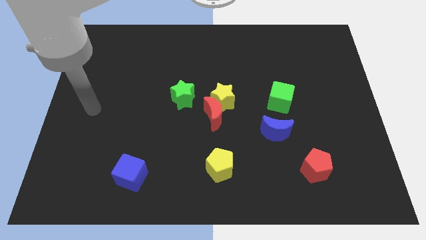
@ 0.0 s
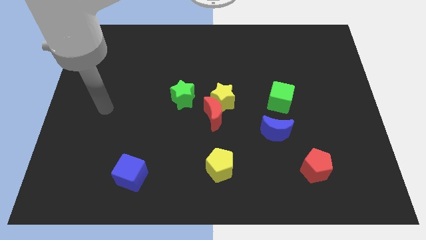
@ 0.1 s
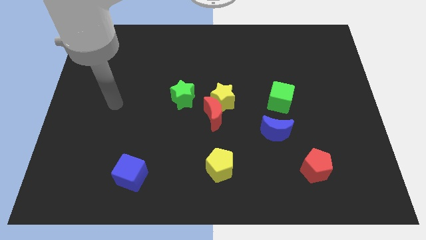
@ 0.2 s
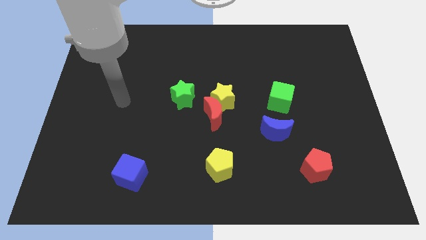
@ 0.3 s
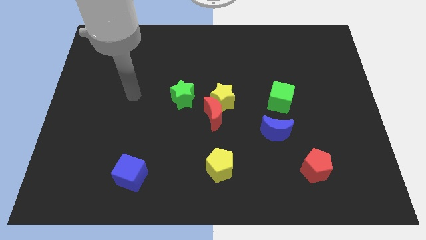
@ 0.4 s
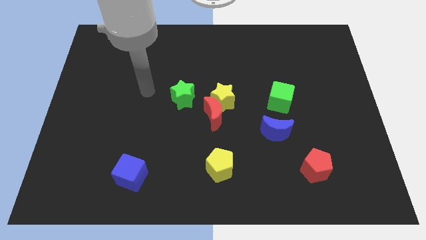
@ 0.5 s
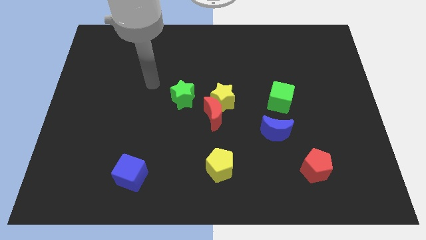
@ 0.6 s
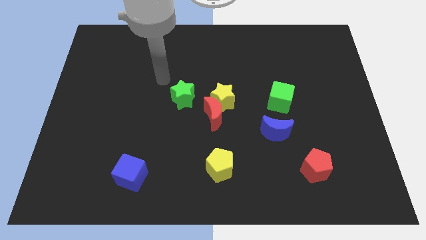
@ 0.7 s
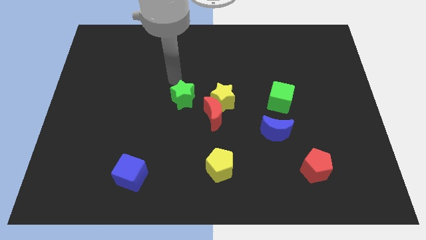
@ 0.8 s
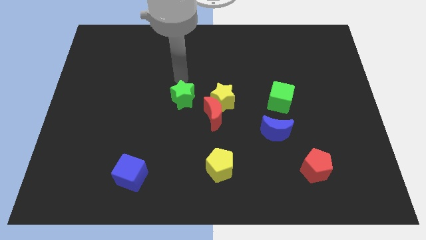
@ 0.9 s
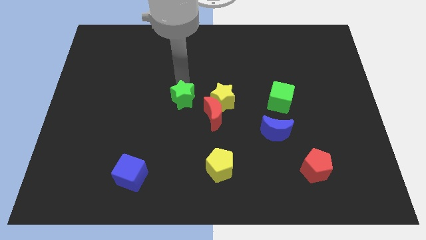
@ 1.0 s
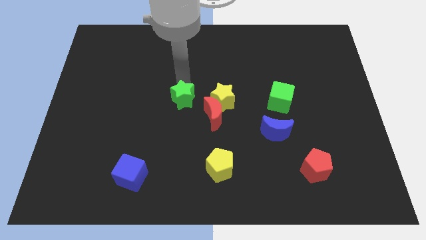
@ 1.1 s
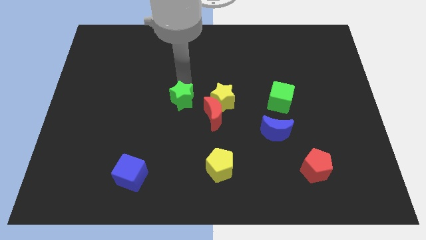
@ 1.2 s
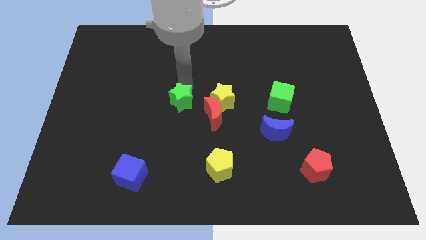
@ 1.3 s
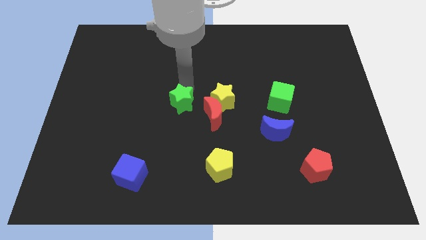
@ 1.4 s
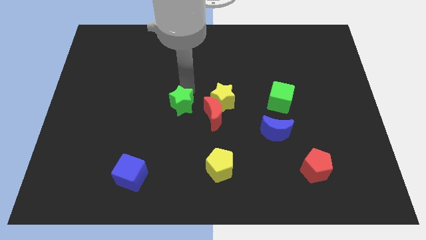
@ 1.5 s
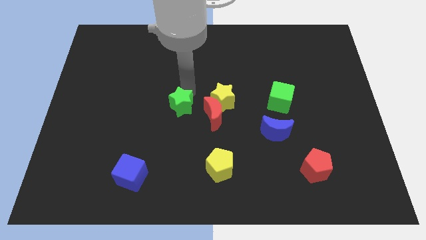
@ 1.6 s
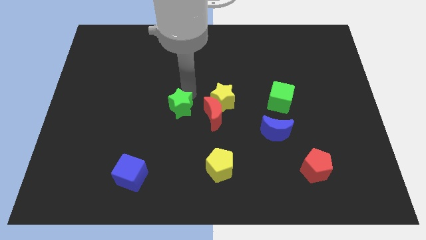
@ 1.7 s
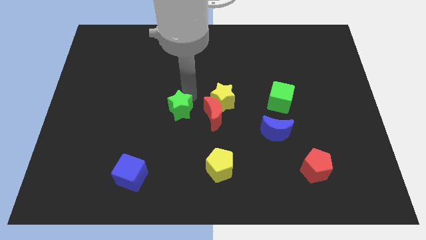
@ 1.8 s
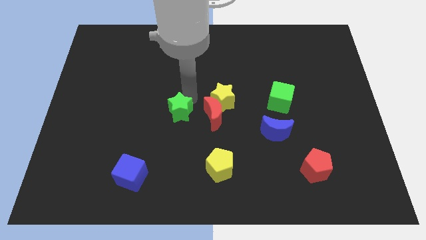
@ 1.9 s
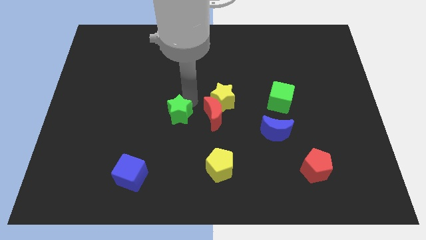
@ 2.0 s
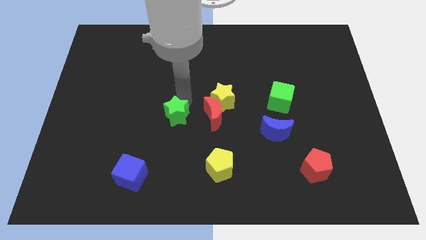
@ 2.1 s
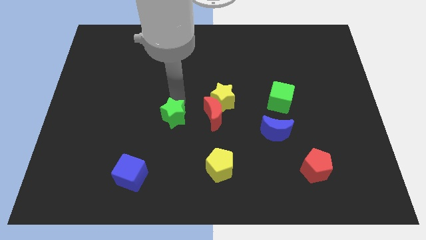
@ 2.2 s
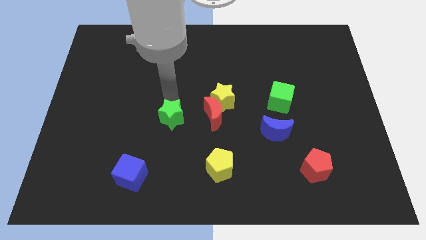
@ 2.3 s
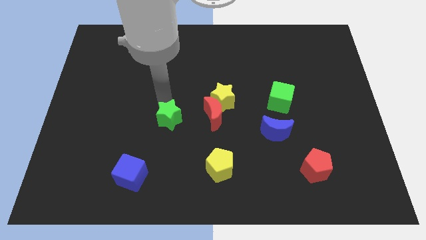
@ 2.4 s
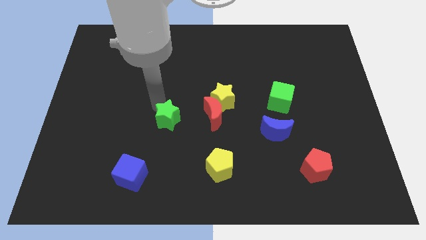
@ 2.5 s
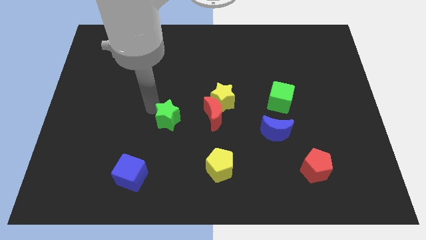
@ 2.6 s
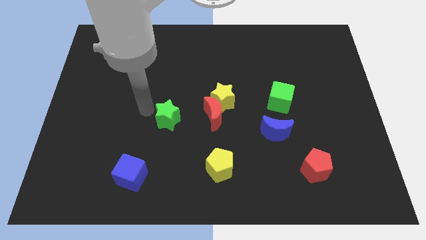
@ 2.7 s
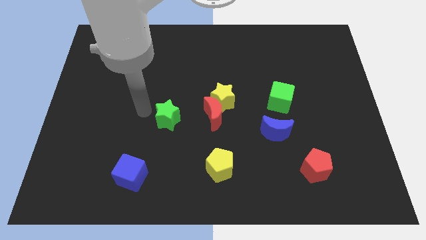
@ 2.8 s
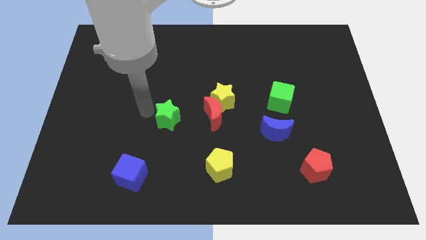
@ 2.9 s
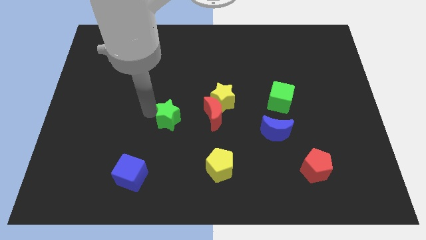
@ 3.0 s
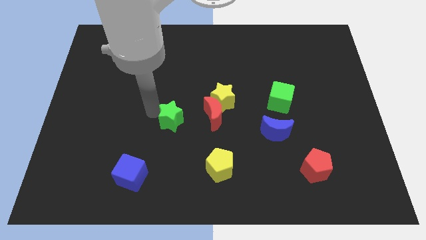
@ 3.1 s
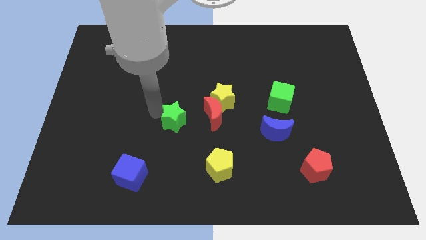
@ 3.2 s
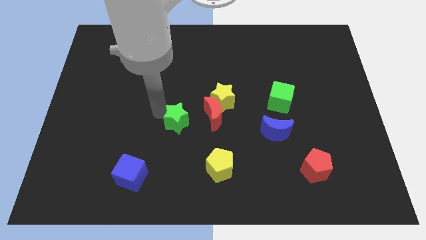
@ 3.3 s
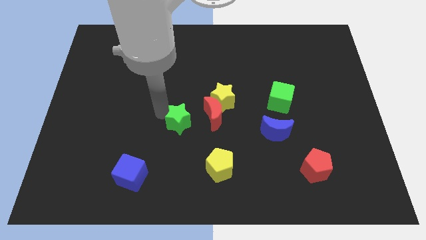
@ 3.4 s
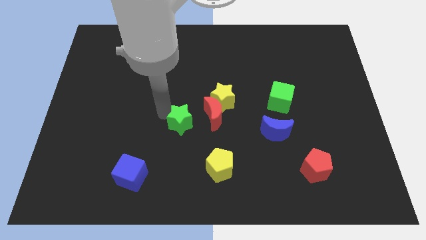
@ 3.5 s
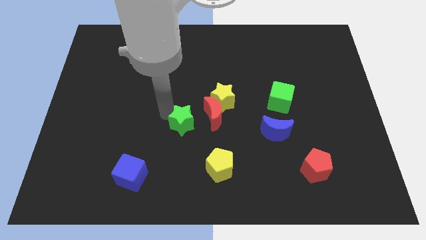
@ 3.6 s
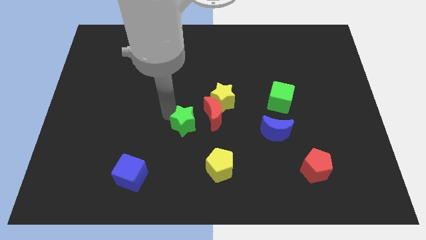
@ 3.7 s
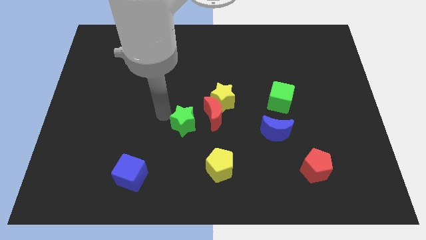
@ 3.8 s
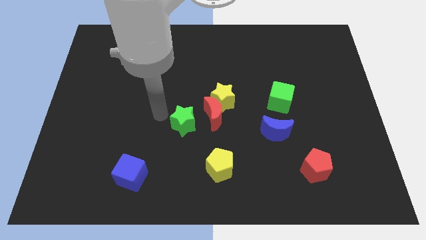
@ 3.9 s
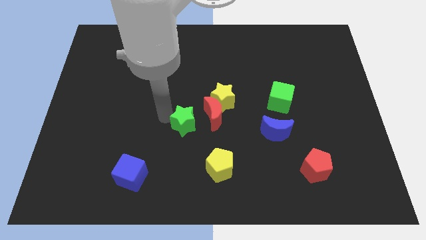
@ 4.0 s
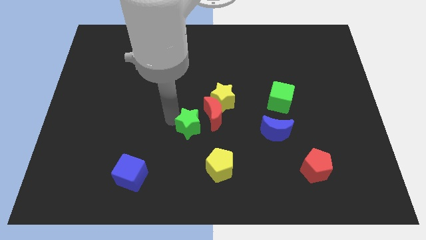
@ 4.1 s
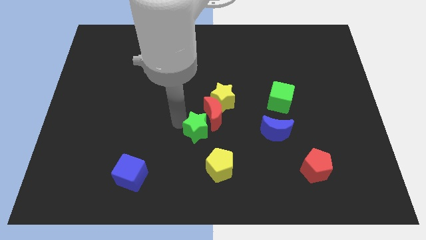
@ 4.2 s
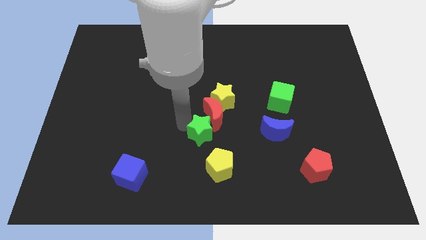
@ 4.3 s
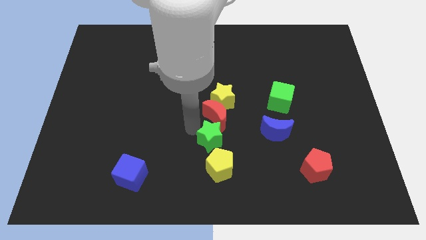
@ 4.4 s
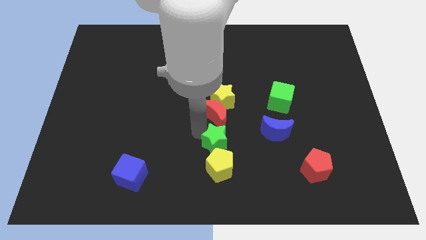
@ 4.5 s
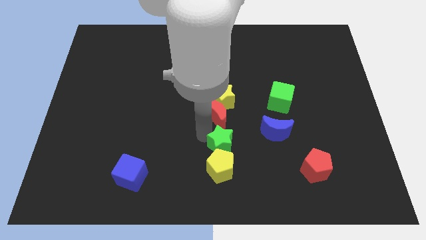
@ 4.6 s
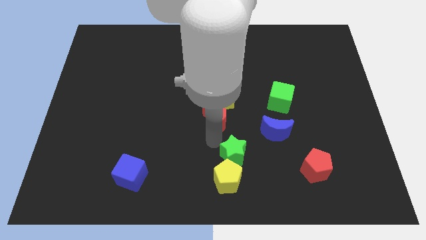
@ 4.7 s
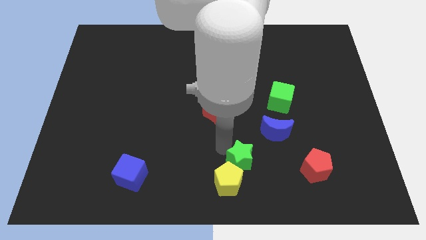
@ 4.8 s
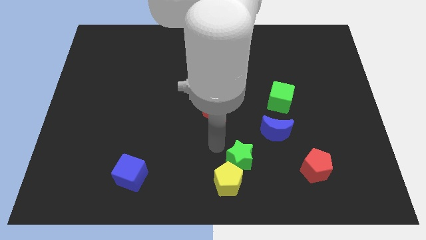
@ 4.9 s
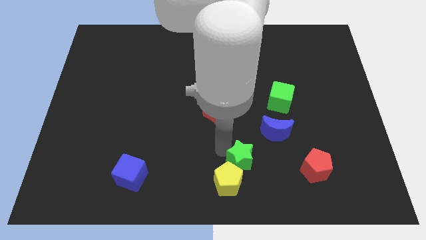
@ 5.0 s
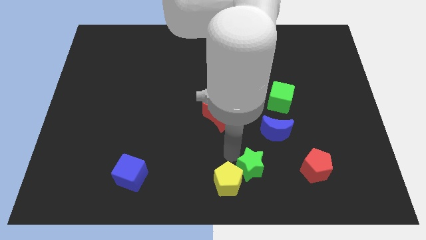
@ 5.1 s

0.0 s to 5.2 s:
put the green star to the right of the yellow pentagon

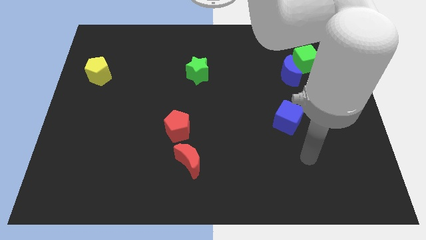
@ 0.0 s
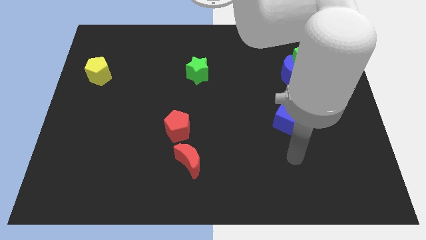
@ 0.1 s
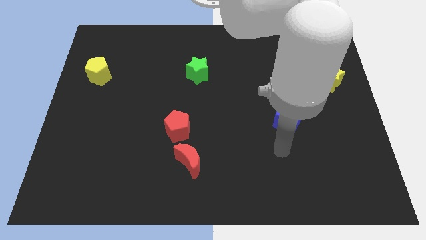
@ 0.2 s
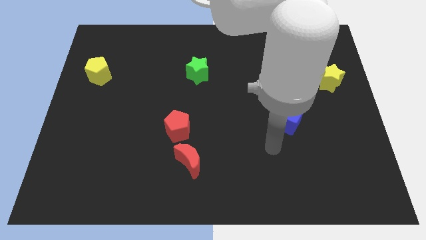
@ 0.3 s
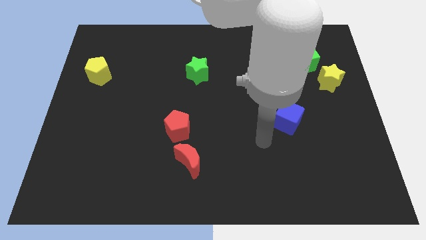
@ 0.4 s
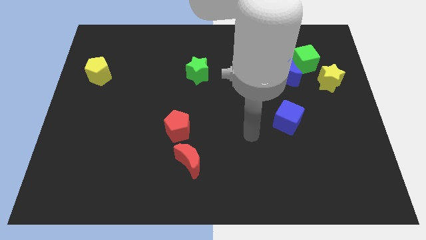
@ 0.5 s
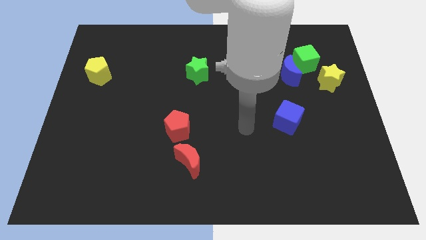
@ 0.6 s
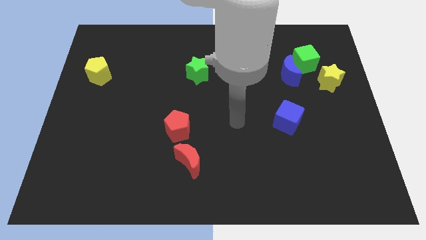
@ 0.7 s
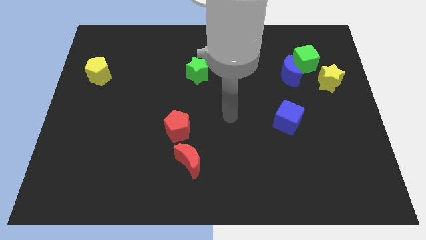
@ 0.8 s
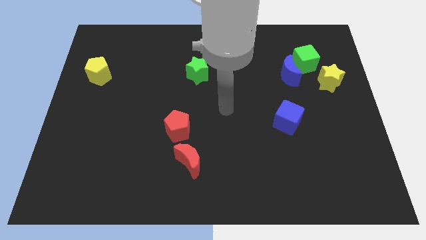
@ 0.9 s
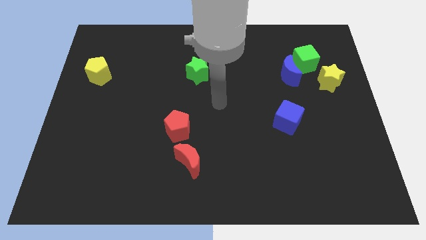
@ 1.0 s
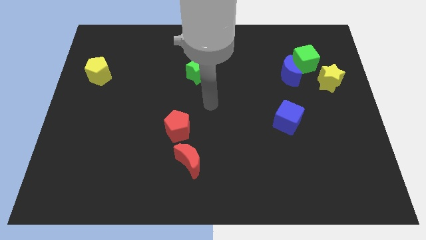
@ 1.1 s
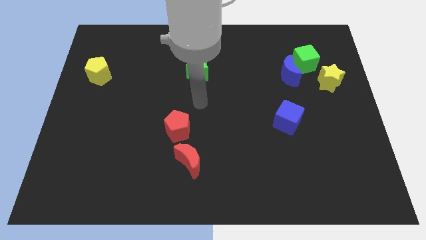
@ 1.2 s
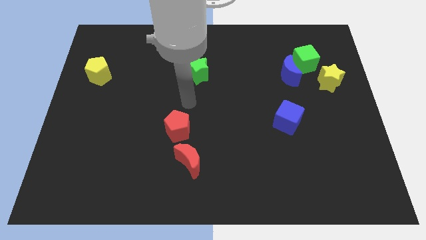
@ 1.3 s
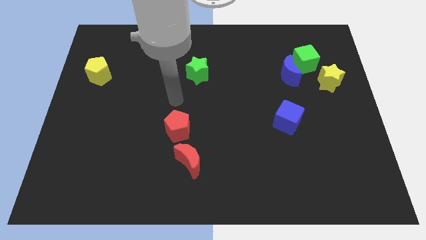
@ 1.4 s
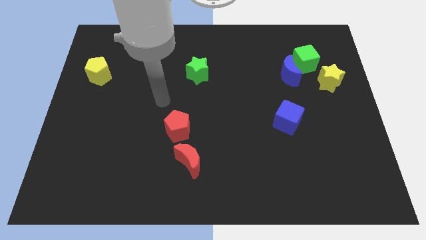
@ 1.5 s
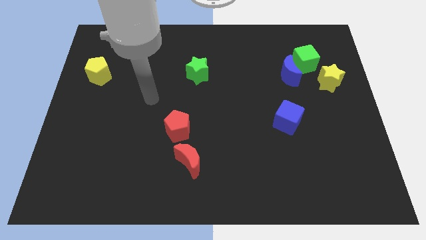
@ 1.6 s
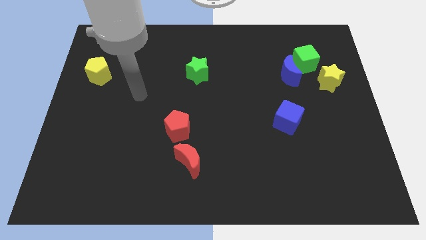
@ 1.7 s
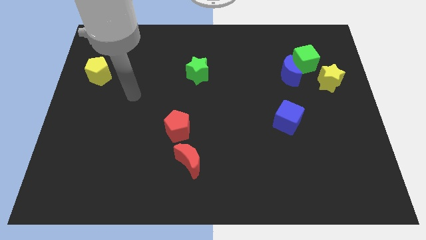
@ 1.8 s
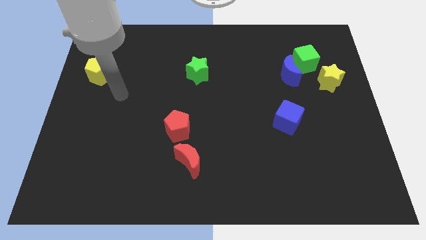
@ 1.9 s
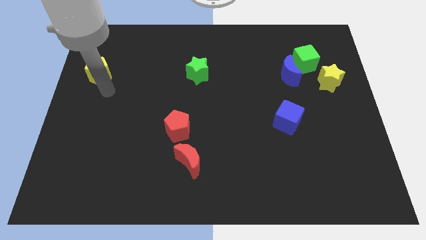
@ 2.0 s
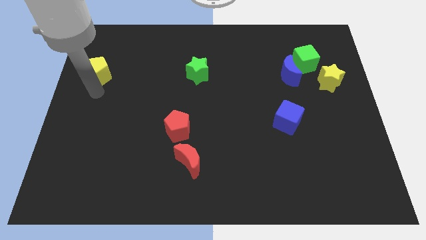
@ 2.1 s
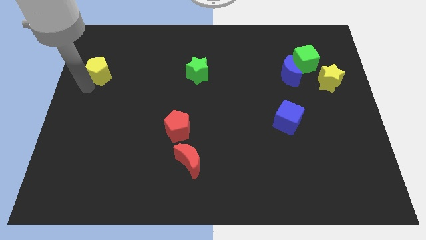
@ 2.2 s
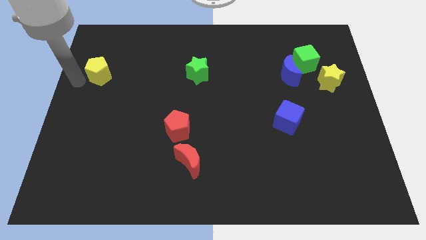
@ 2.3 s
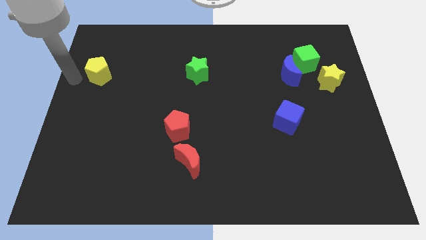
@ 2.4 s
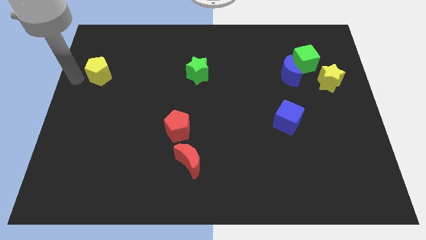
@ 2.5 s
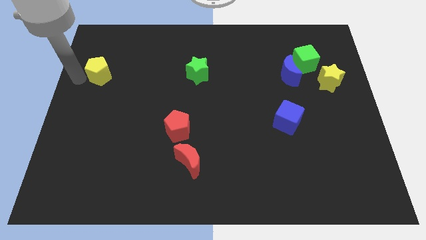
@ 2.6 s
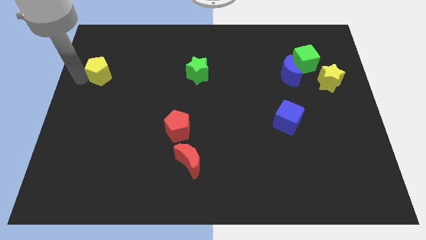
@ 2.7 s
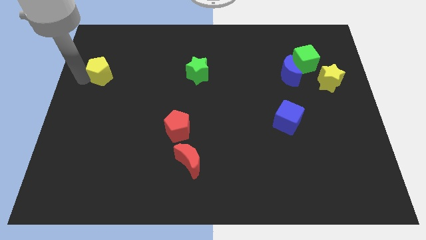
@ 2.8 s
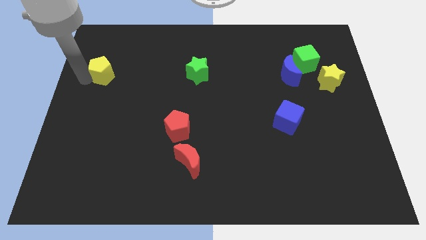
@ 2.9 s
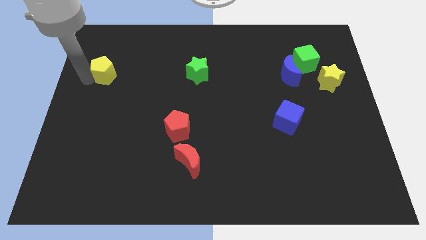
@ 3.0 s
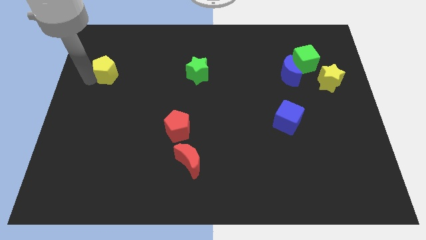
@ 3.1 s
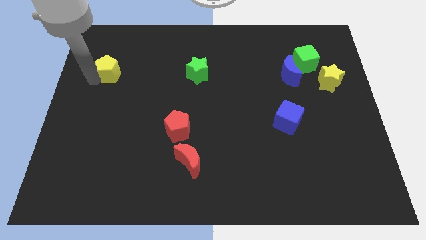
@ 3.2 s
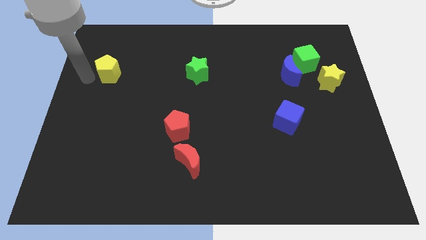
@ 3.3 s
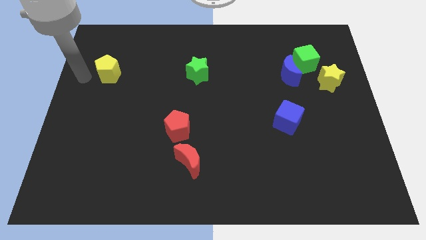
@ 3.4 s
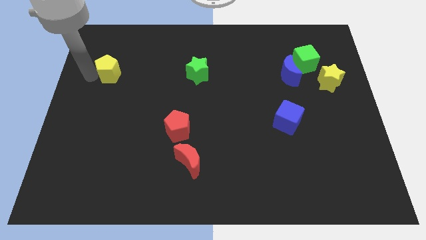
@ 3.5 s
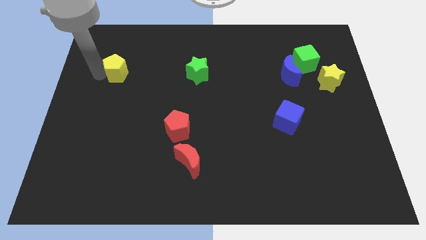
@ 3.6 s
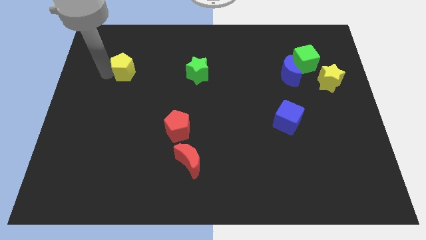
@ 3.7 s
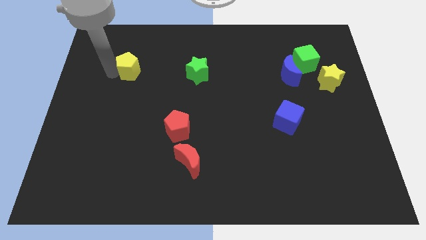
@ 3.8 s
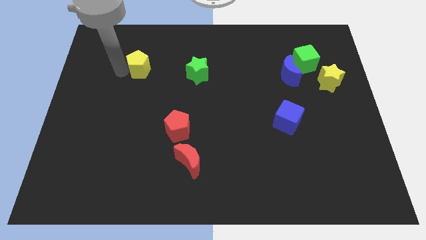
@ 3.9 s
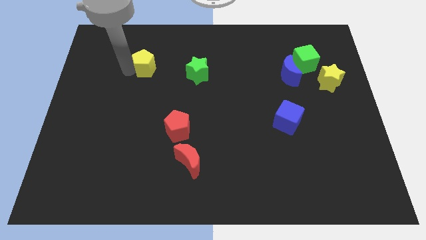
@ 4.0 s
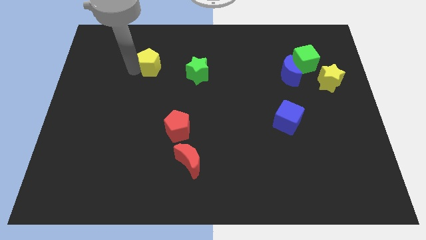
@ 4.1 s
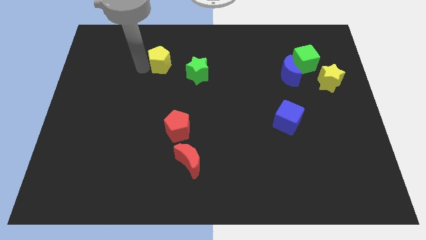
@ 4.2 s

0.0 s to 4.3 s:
put the yellow pentagon diagonally up and to the left of the green star
